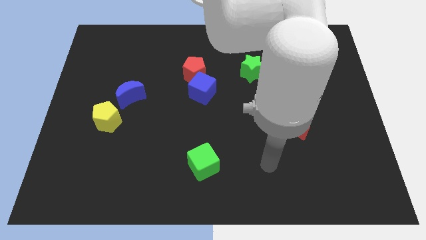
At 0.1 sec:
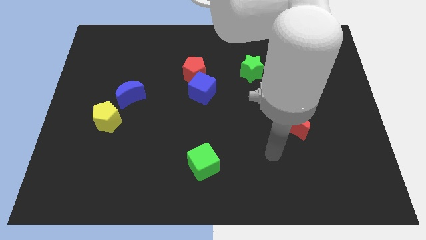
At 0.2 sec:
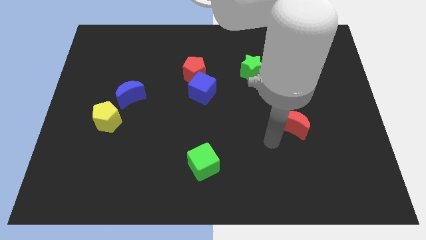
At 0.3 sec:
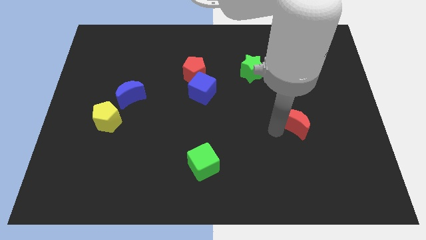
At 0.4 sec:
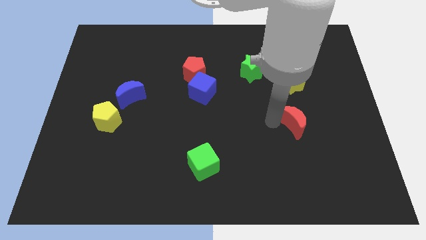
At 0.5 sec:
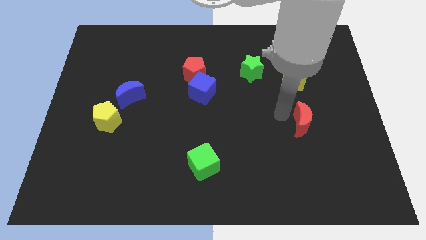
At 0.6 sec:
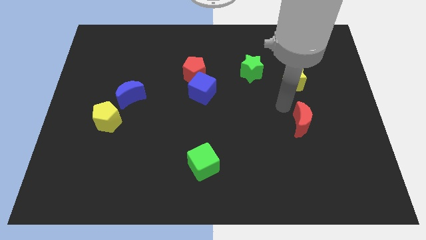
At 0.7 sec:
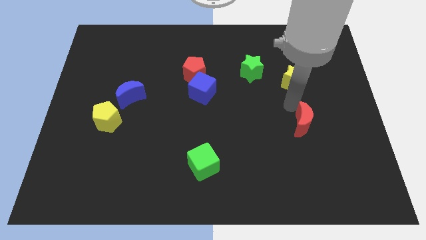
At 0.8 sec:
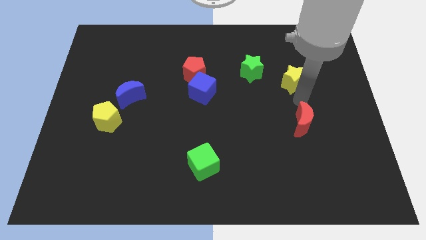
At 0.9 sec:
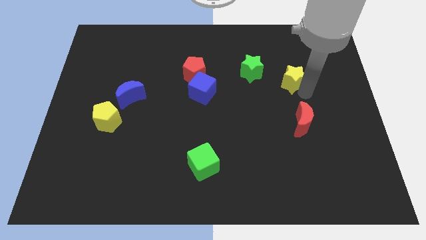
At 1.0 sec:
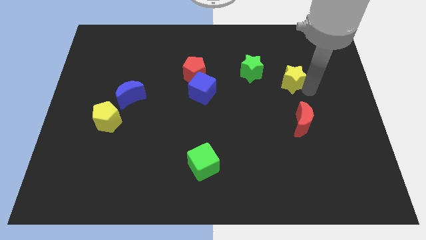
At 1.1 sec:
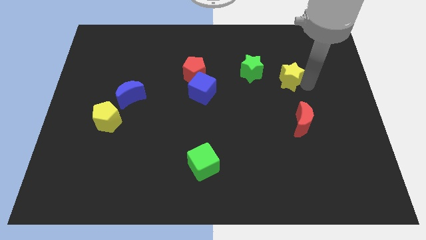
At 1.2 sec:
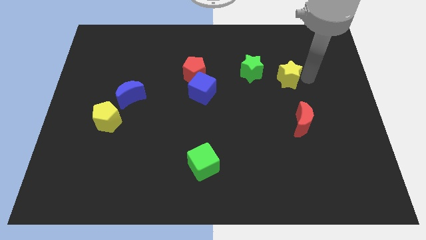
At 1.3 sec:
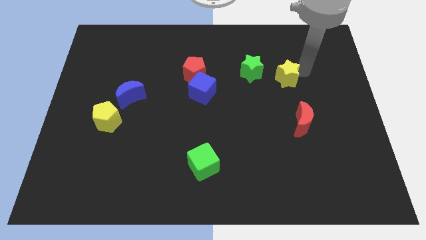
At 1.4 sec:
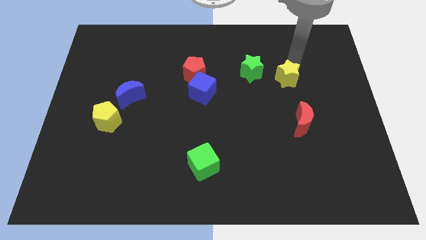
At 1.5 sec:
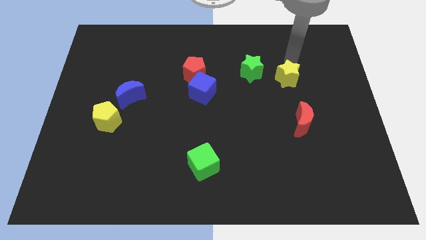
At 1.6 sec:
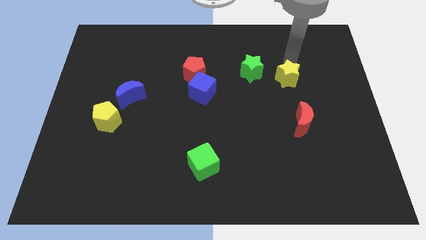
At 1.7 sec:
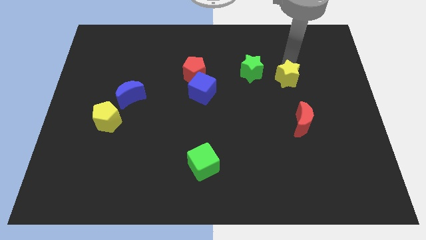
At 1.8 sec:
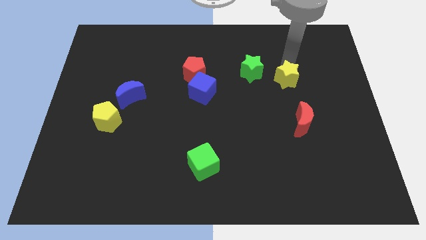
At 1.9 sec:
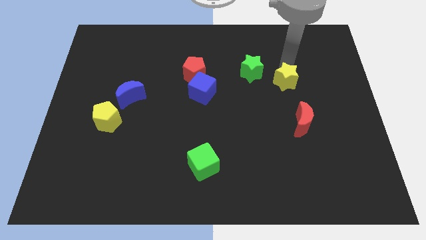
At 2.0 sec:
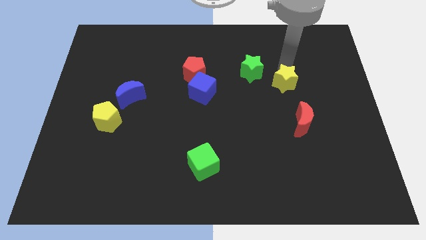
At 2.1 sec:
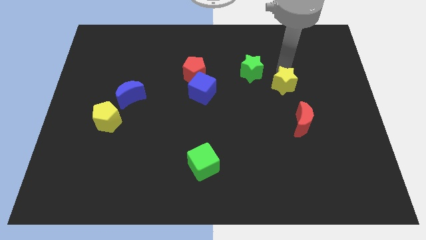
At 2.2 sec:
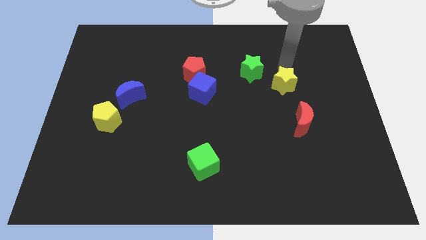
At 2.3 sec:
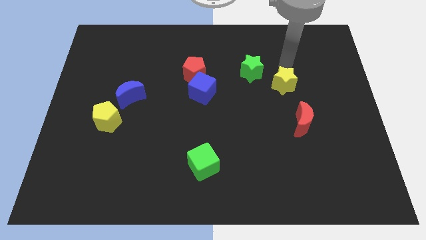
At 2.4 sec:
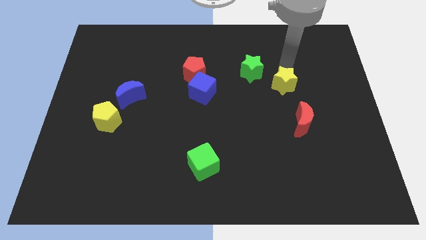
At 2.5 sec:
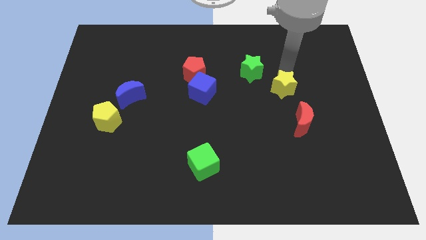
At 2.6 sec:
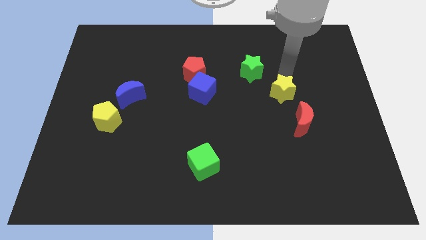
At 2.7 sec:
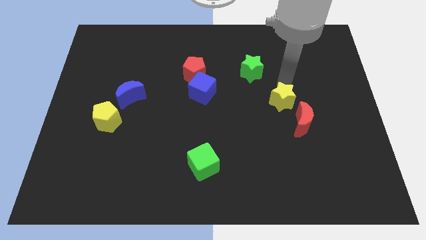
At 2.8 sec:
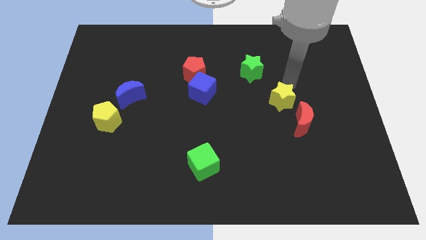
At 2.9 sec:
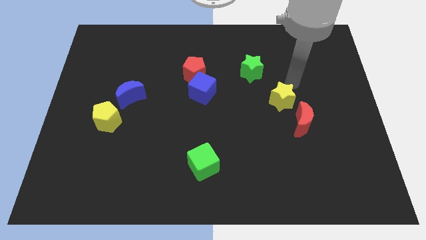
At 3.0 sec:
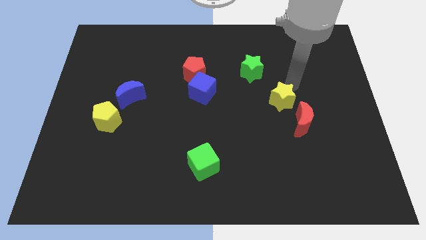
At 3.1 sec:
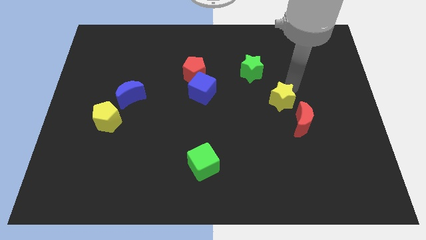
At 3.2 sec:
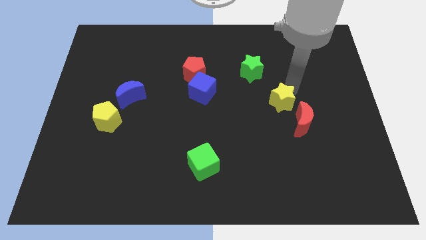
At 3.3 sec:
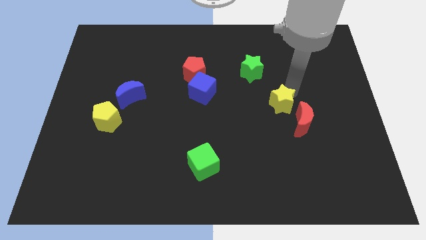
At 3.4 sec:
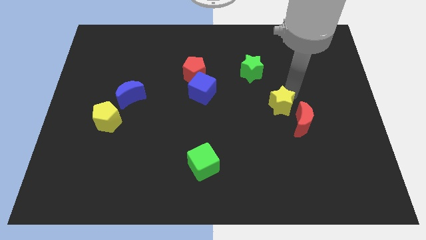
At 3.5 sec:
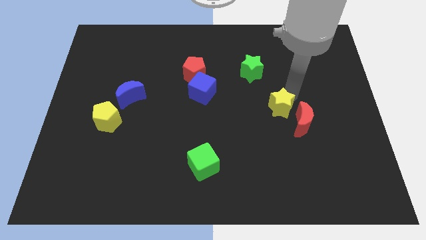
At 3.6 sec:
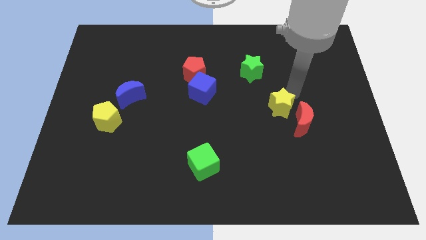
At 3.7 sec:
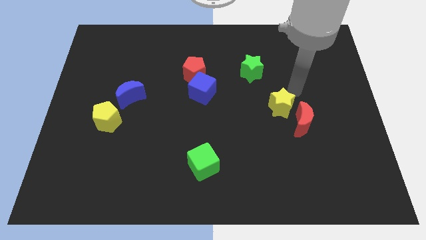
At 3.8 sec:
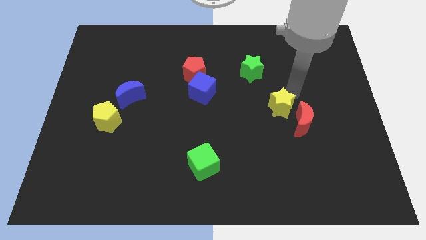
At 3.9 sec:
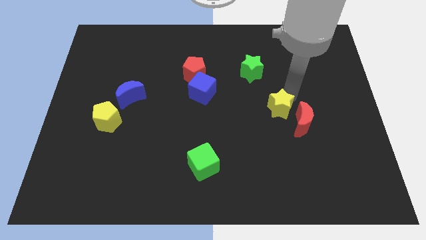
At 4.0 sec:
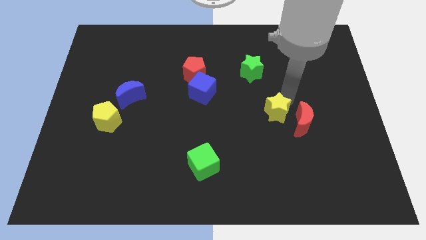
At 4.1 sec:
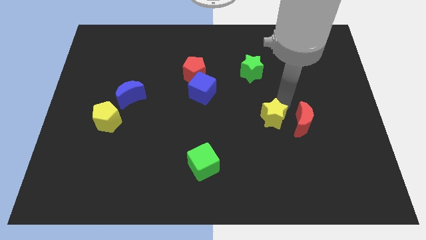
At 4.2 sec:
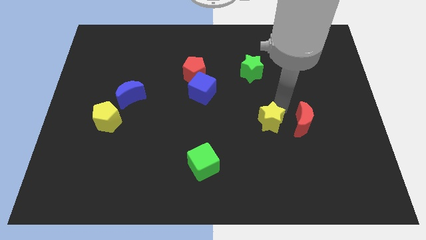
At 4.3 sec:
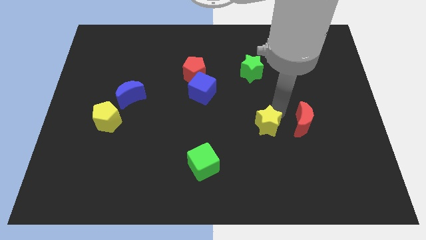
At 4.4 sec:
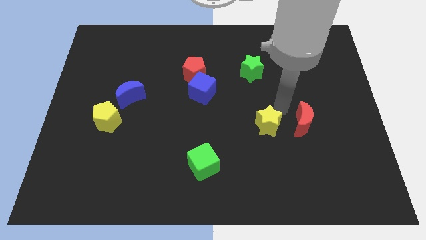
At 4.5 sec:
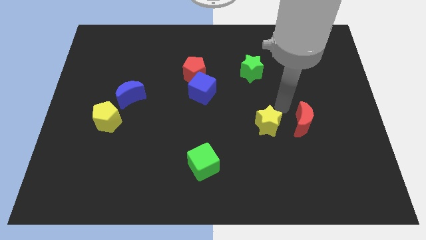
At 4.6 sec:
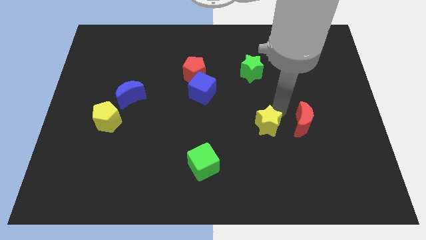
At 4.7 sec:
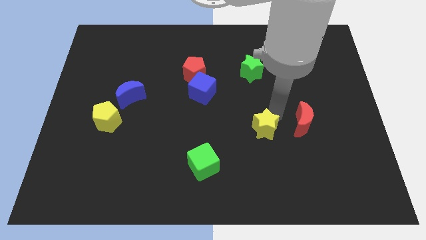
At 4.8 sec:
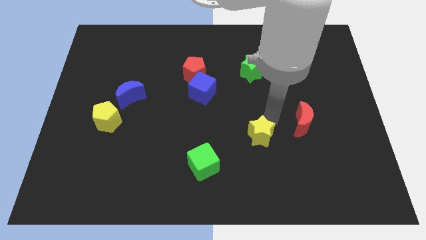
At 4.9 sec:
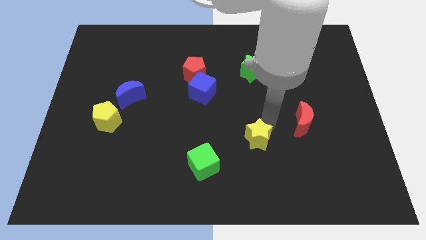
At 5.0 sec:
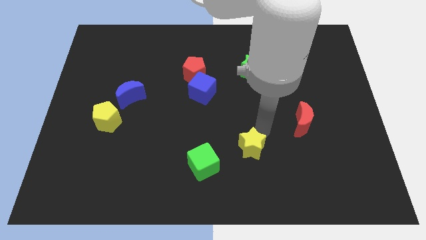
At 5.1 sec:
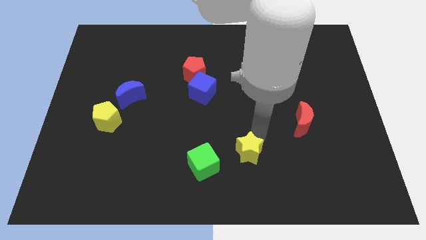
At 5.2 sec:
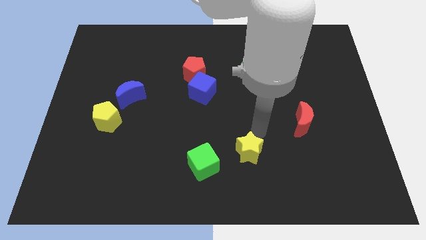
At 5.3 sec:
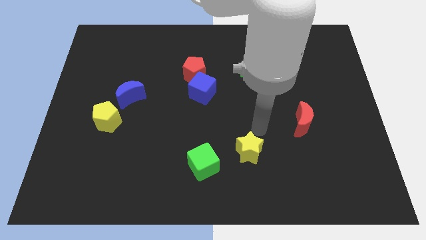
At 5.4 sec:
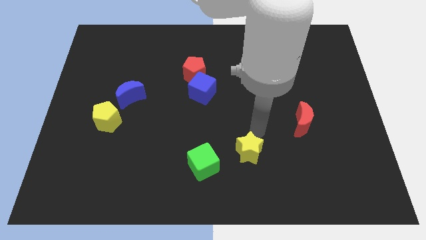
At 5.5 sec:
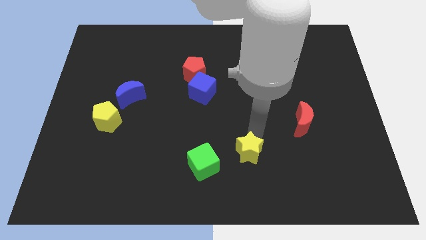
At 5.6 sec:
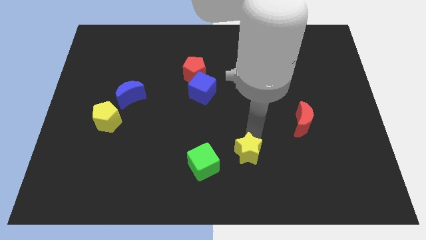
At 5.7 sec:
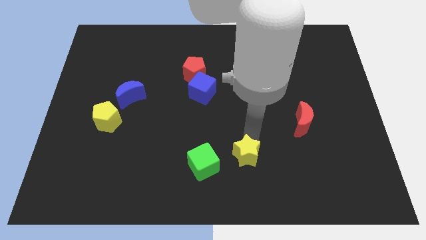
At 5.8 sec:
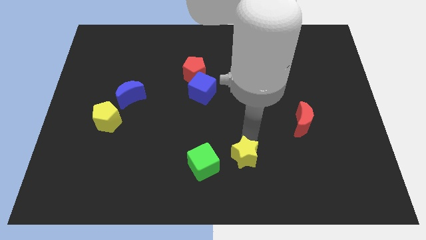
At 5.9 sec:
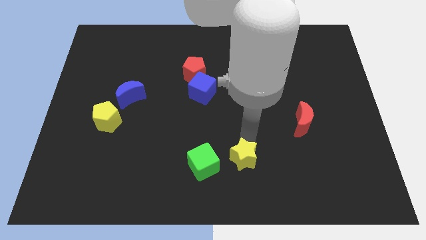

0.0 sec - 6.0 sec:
move the yellow star to the bottom side

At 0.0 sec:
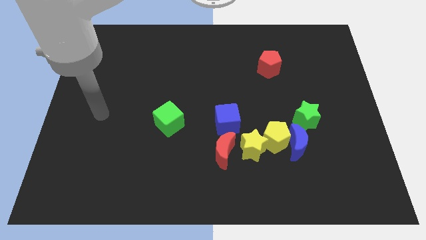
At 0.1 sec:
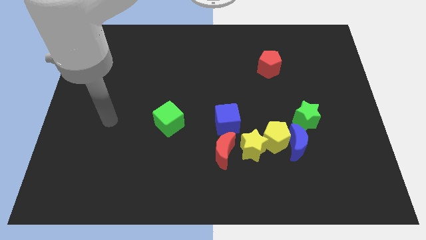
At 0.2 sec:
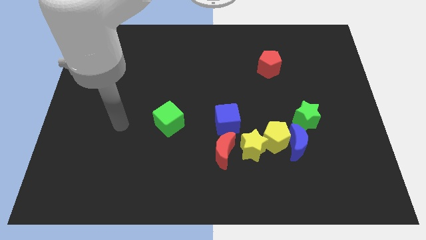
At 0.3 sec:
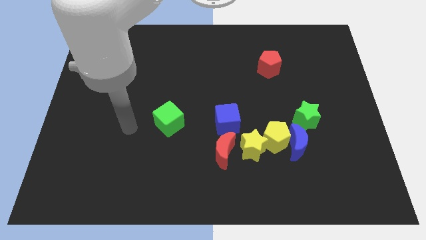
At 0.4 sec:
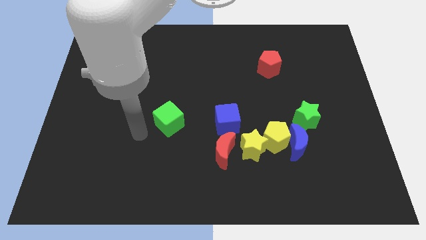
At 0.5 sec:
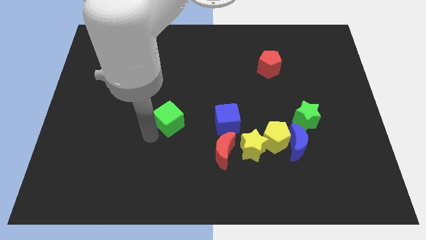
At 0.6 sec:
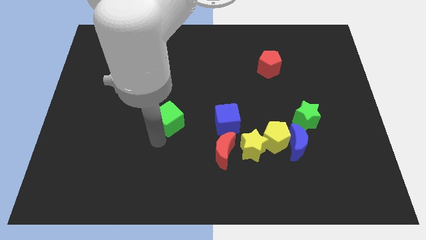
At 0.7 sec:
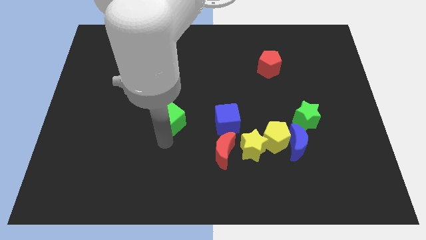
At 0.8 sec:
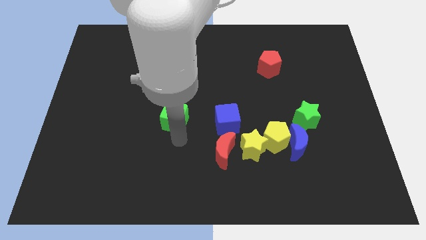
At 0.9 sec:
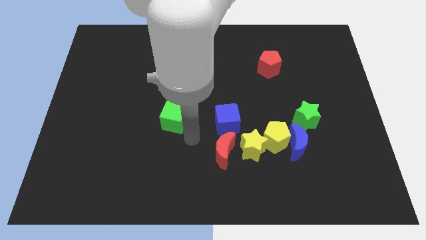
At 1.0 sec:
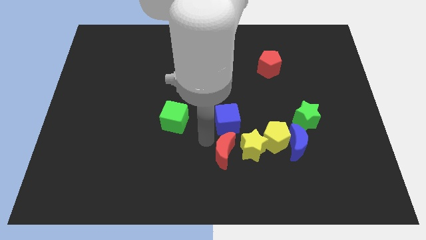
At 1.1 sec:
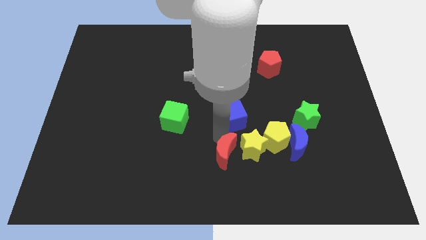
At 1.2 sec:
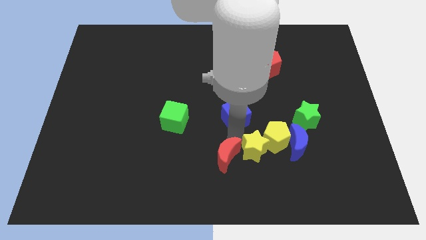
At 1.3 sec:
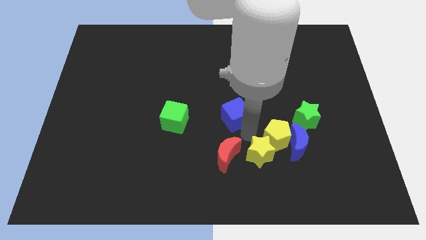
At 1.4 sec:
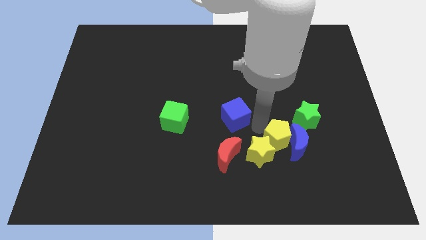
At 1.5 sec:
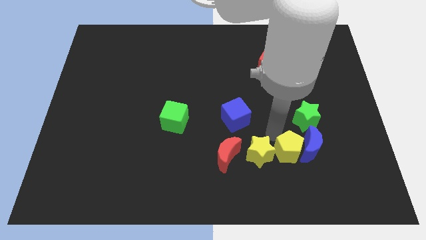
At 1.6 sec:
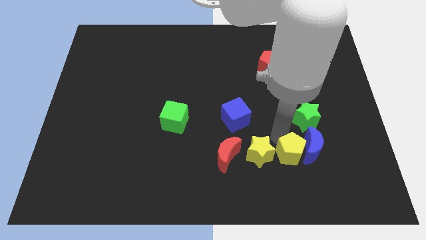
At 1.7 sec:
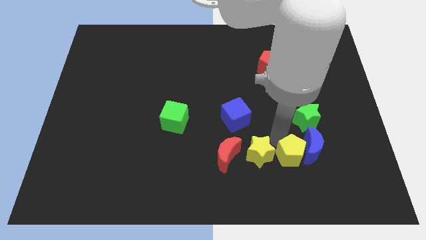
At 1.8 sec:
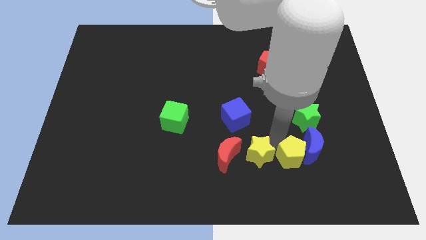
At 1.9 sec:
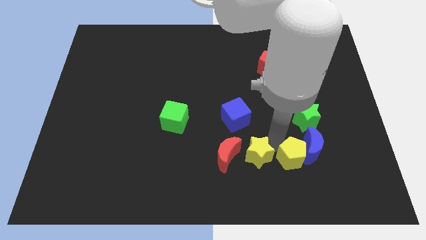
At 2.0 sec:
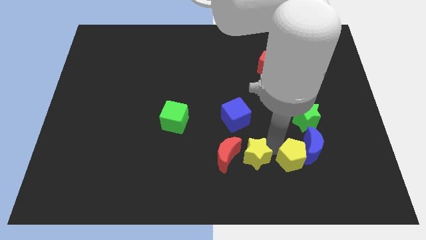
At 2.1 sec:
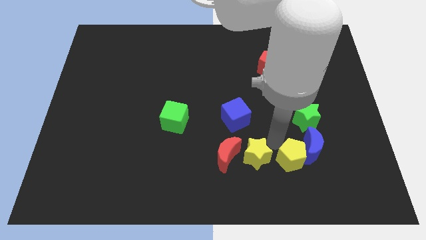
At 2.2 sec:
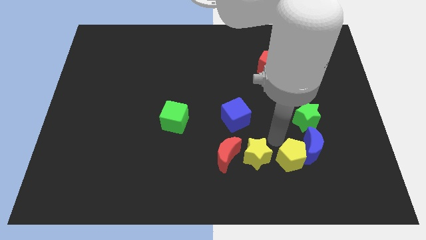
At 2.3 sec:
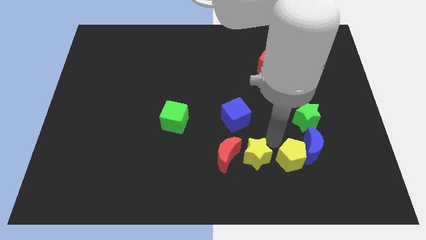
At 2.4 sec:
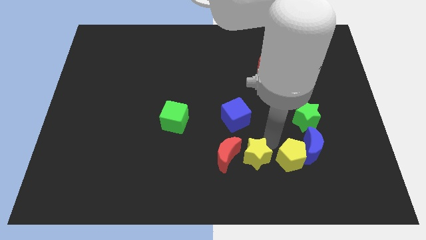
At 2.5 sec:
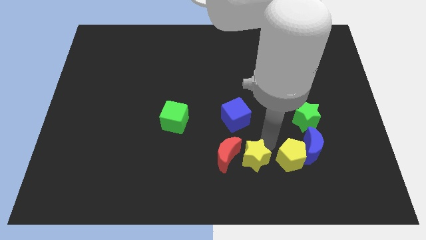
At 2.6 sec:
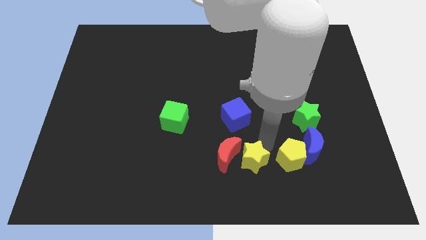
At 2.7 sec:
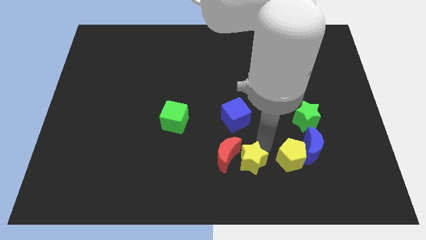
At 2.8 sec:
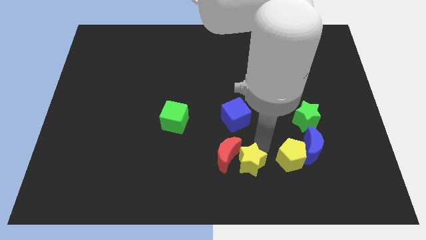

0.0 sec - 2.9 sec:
slide the yellow star to the bottom
